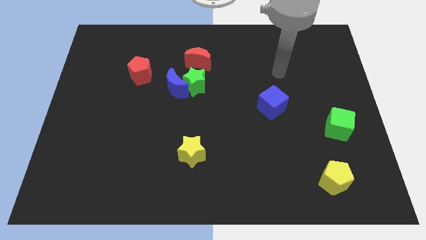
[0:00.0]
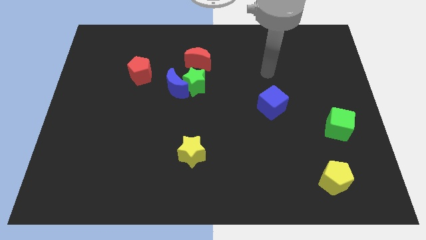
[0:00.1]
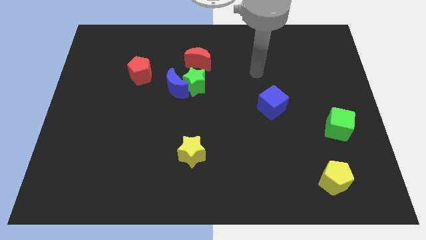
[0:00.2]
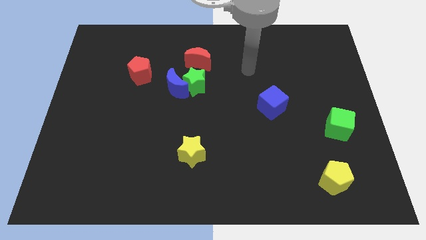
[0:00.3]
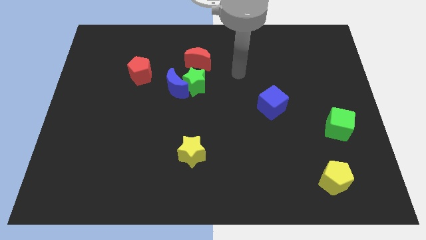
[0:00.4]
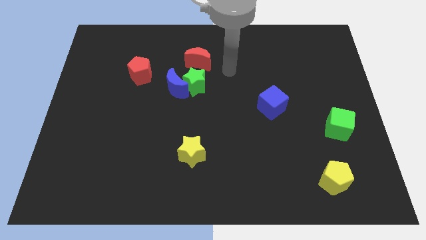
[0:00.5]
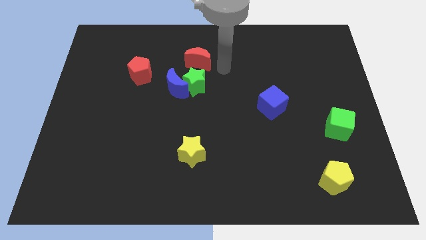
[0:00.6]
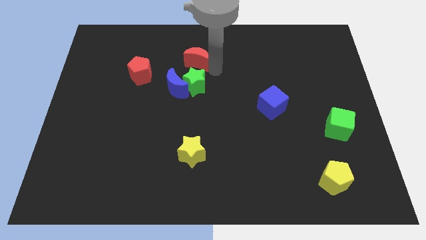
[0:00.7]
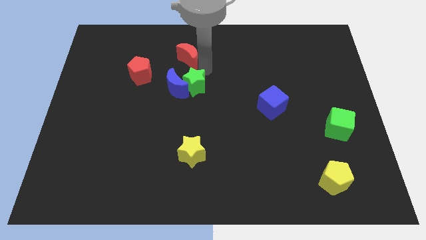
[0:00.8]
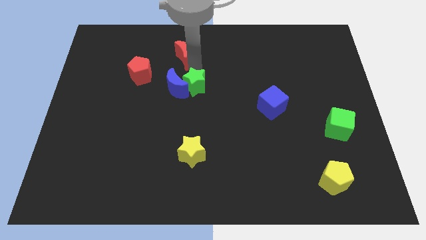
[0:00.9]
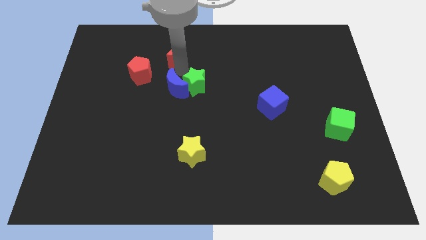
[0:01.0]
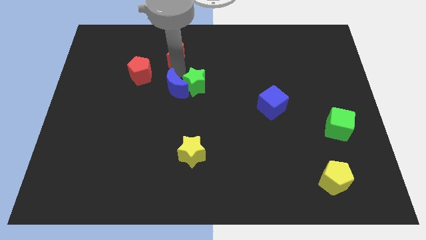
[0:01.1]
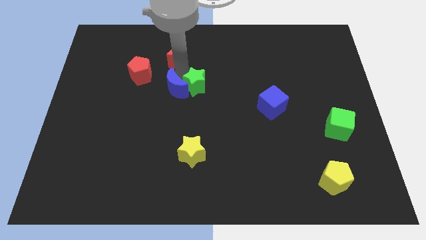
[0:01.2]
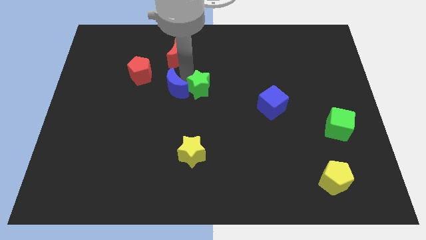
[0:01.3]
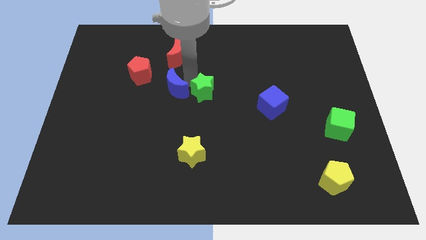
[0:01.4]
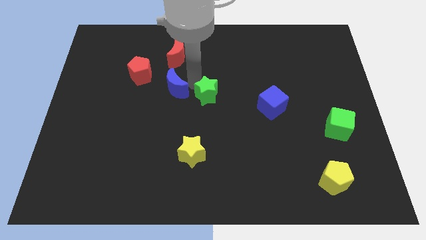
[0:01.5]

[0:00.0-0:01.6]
pull the green star apart from the blue moon and red moon

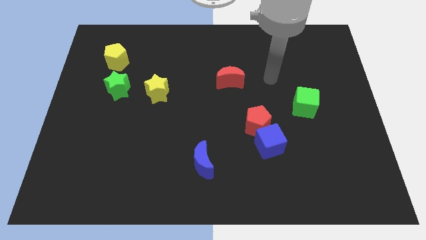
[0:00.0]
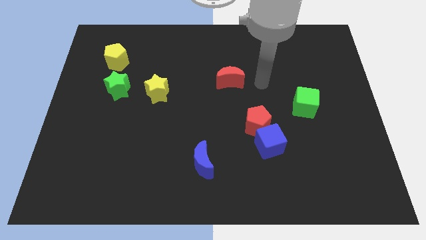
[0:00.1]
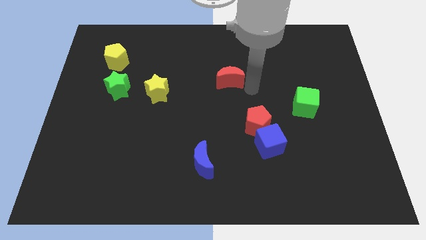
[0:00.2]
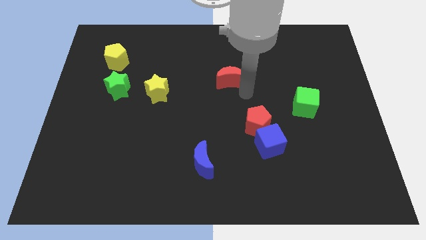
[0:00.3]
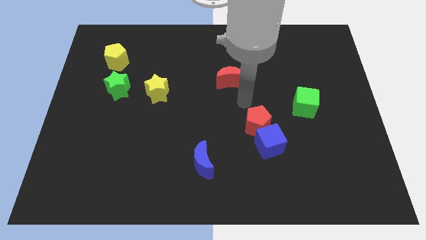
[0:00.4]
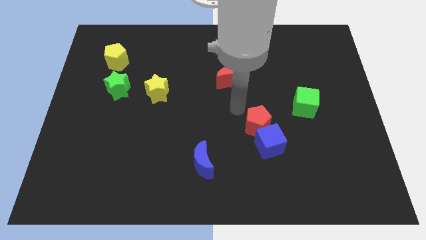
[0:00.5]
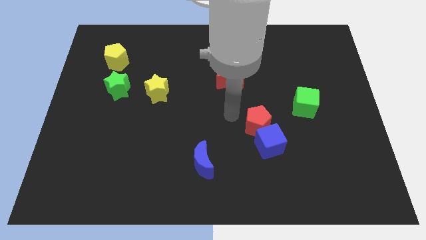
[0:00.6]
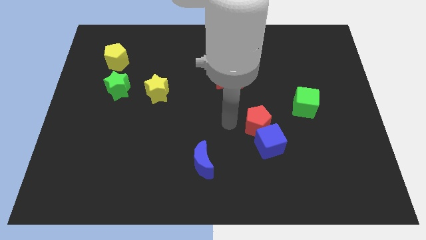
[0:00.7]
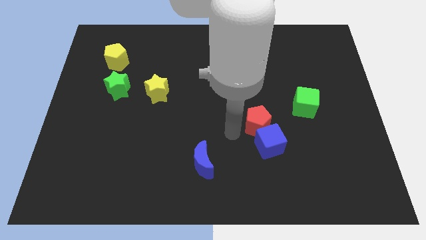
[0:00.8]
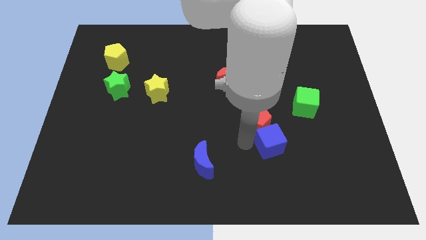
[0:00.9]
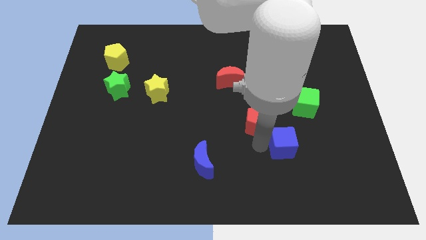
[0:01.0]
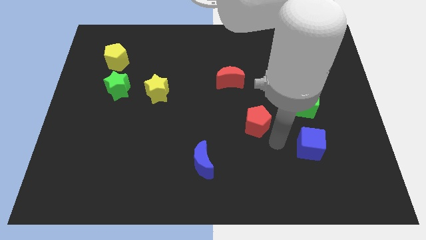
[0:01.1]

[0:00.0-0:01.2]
move the red pentagon away from the blue cube

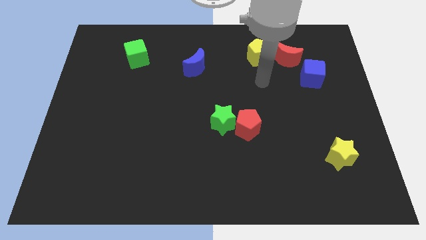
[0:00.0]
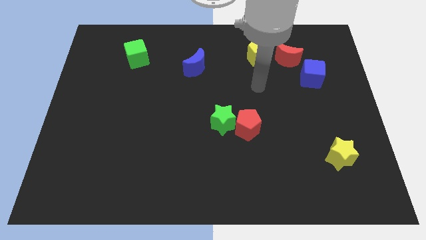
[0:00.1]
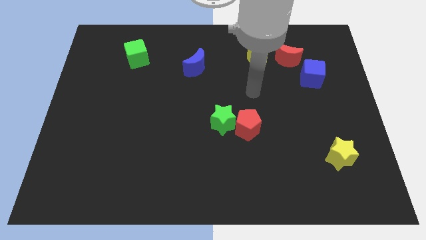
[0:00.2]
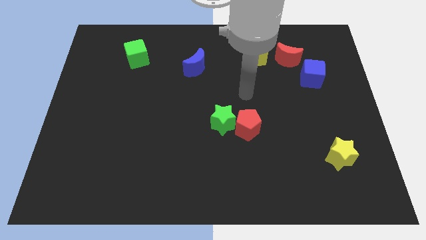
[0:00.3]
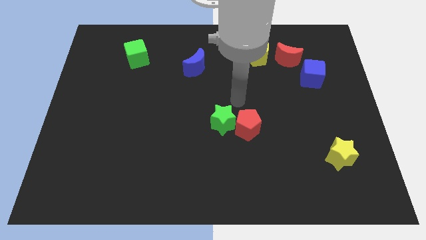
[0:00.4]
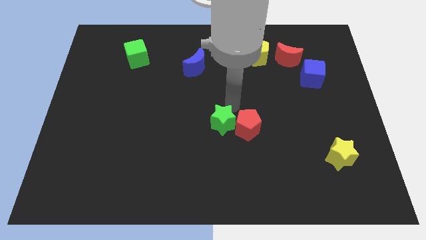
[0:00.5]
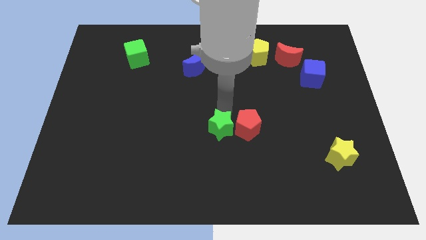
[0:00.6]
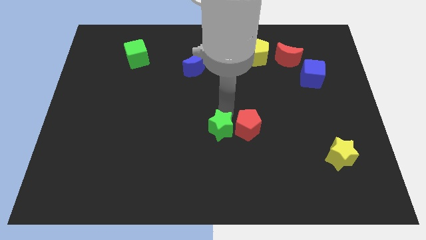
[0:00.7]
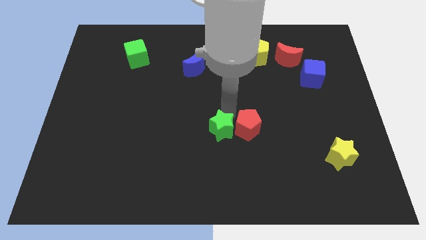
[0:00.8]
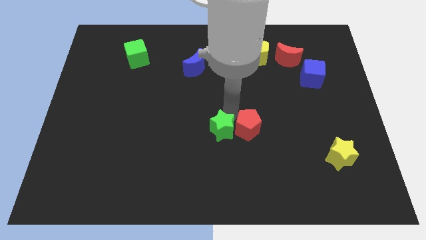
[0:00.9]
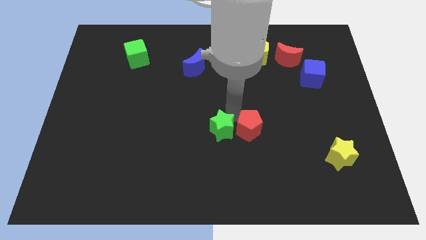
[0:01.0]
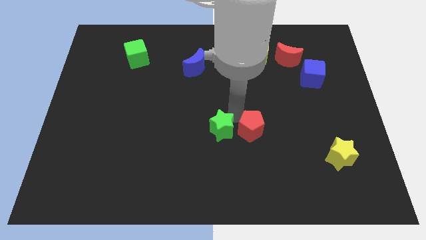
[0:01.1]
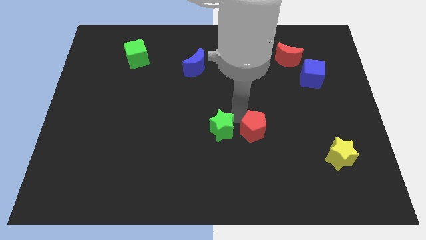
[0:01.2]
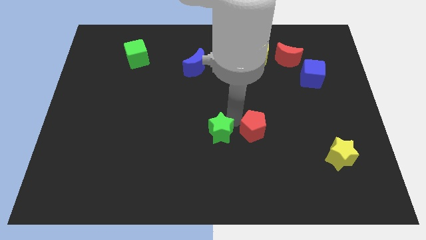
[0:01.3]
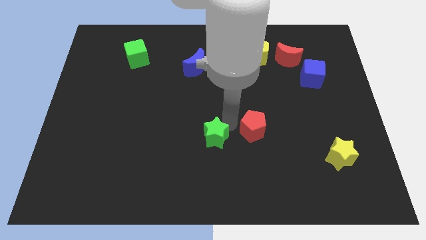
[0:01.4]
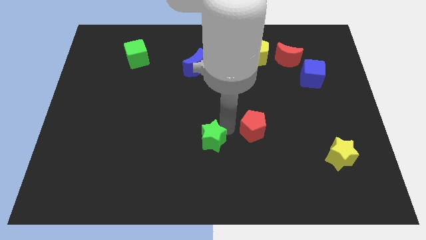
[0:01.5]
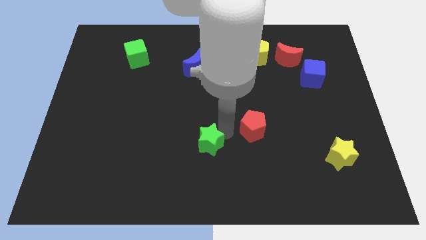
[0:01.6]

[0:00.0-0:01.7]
move the red pentagon away from the green star

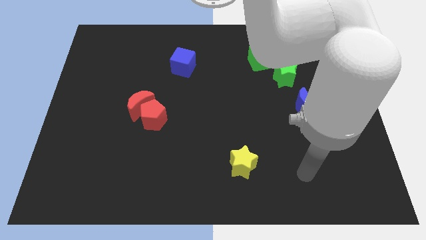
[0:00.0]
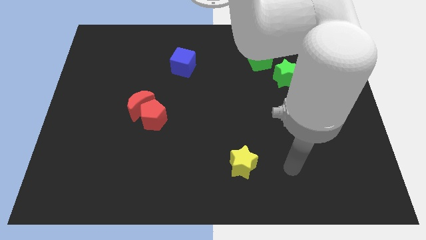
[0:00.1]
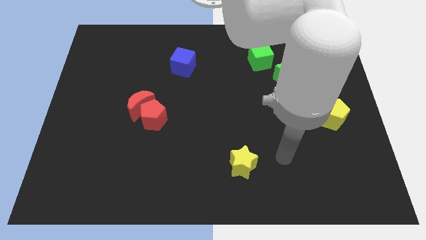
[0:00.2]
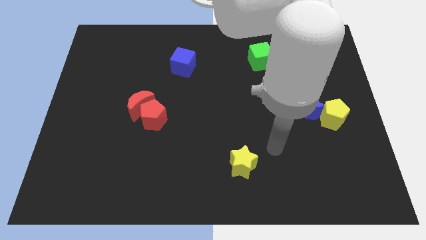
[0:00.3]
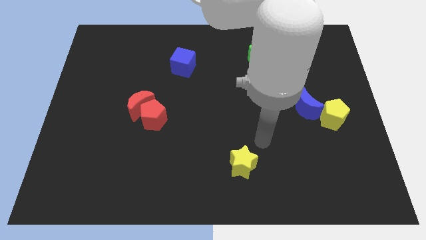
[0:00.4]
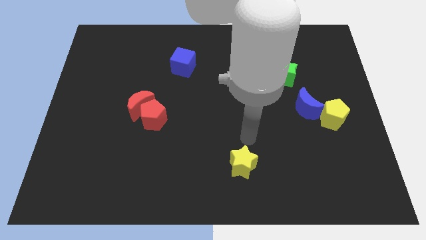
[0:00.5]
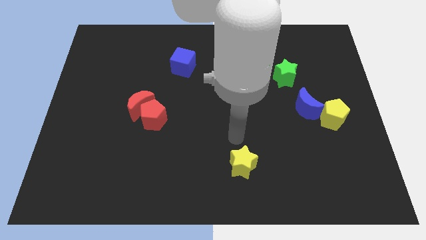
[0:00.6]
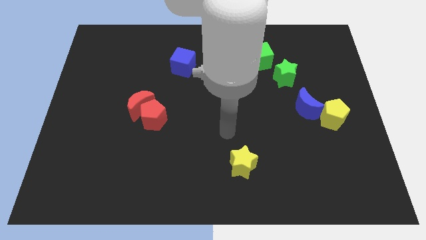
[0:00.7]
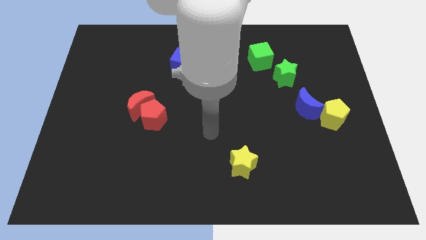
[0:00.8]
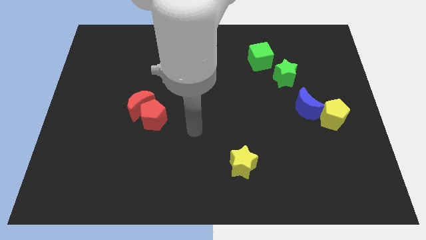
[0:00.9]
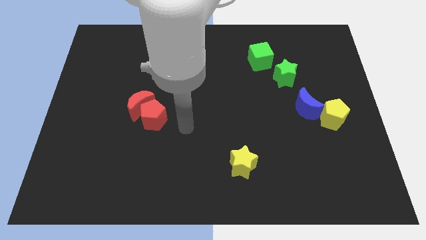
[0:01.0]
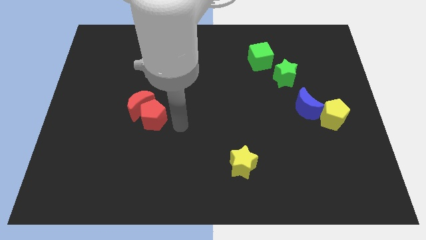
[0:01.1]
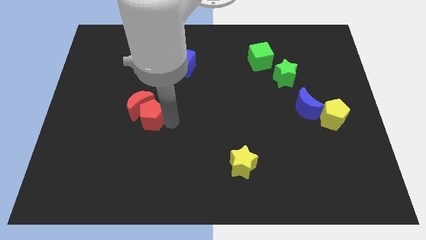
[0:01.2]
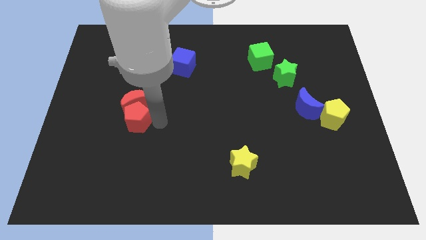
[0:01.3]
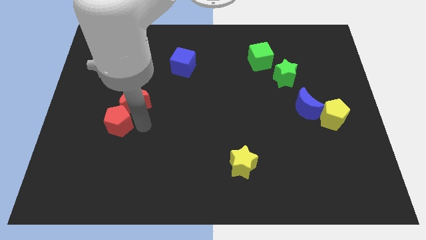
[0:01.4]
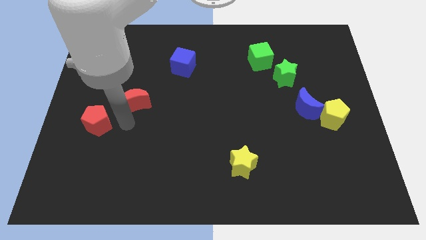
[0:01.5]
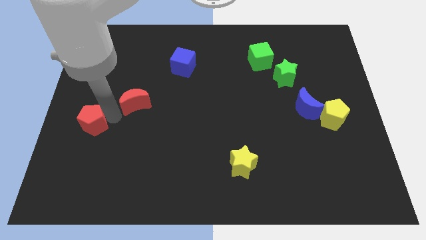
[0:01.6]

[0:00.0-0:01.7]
separate the red moon from the red pentagon

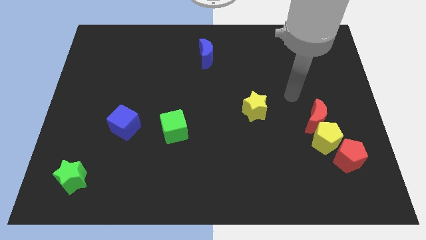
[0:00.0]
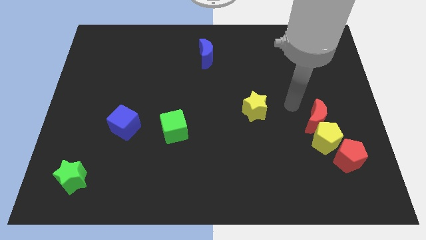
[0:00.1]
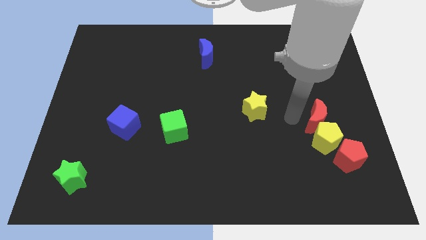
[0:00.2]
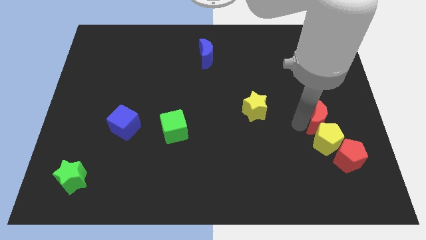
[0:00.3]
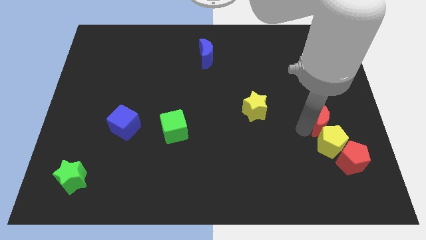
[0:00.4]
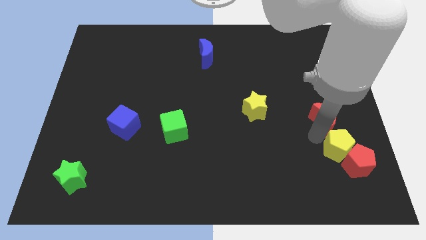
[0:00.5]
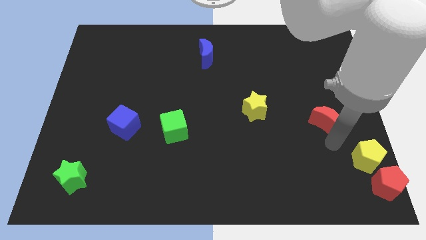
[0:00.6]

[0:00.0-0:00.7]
pull the red moon apart from the yellow pentagon

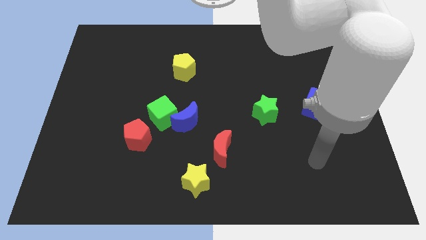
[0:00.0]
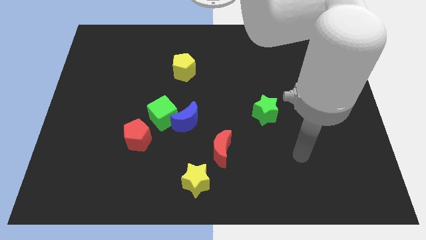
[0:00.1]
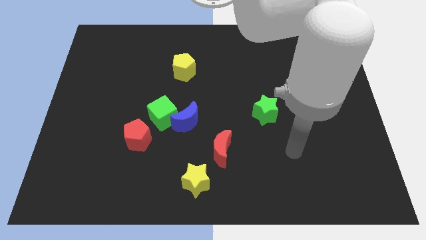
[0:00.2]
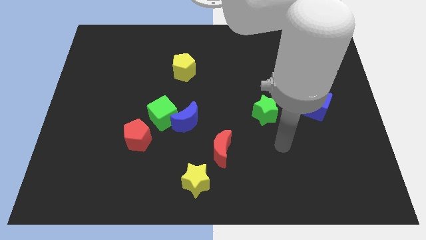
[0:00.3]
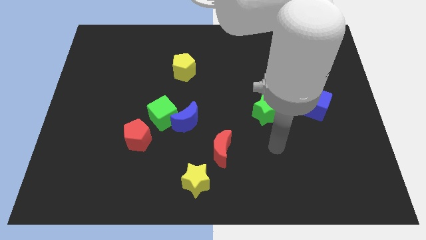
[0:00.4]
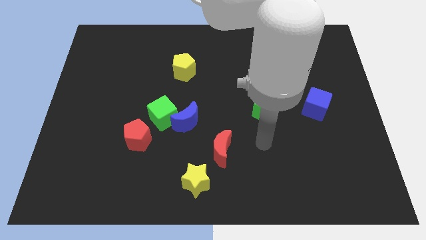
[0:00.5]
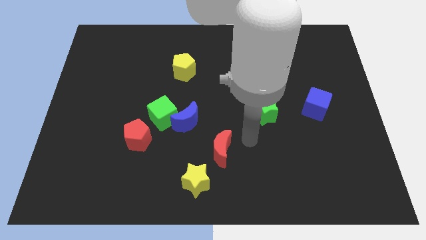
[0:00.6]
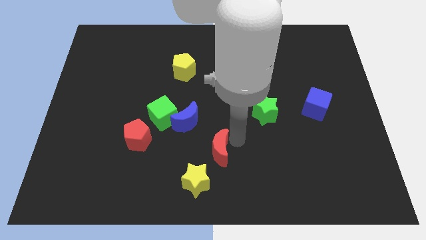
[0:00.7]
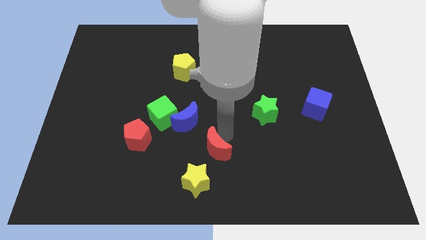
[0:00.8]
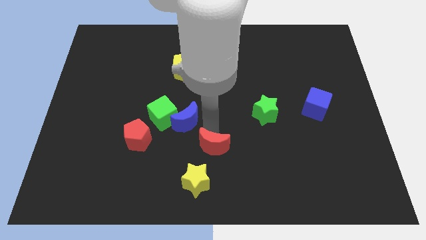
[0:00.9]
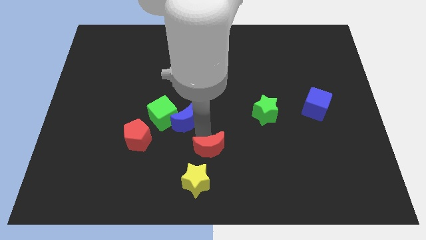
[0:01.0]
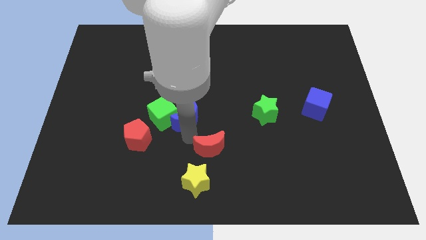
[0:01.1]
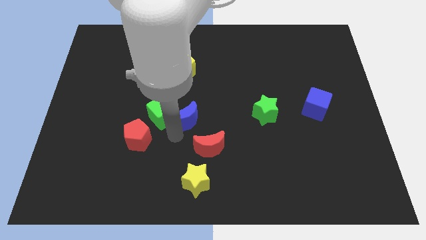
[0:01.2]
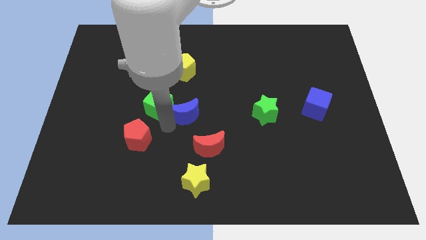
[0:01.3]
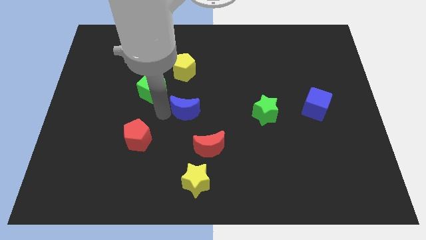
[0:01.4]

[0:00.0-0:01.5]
separate the blue moon from the green cube

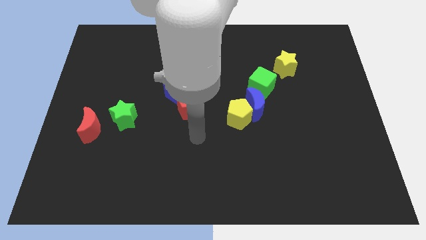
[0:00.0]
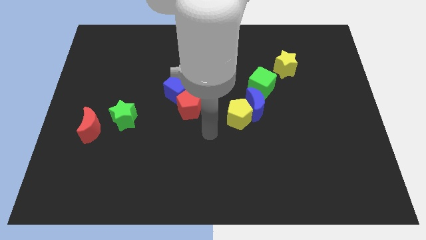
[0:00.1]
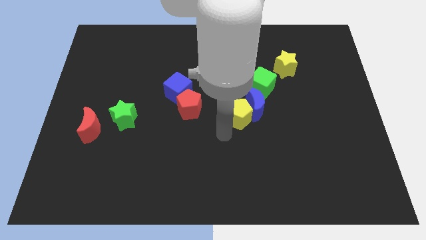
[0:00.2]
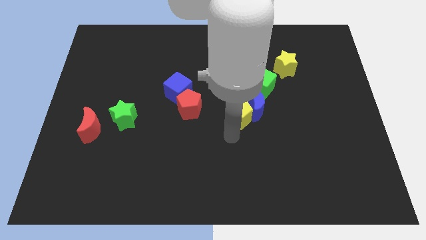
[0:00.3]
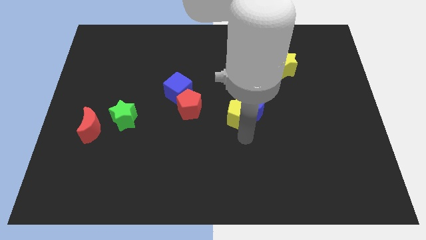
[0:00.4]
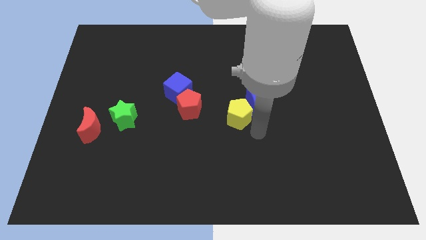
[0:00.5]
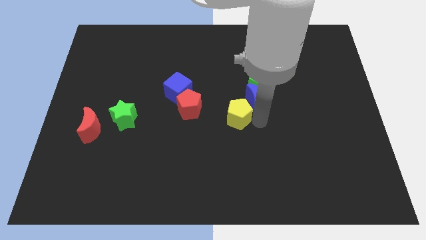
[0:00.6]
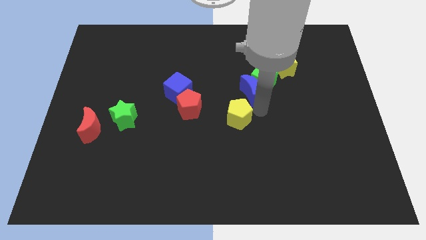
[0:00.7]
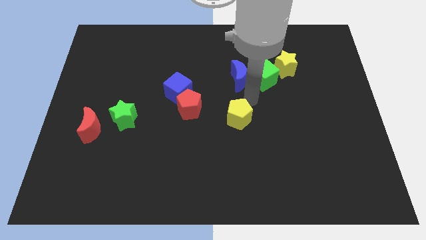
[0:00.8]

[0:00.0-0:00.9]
move the yellow pentagon away from the blue moon
